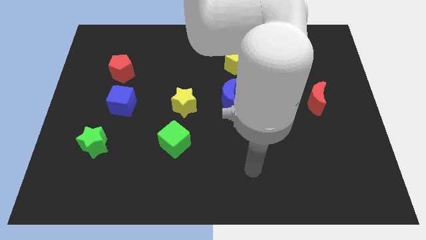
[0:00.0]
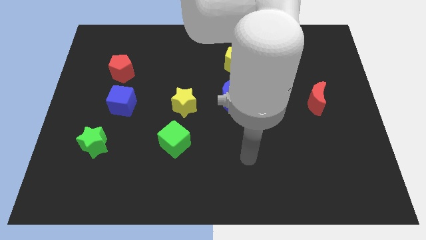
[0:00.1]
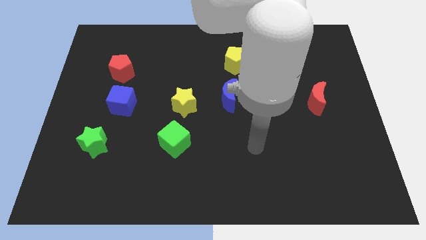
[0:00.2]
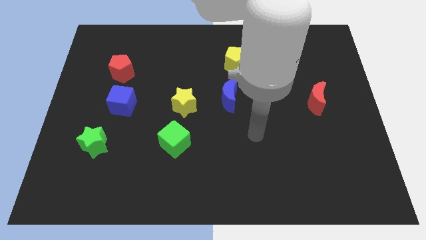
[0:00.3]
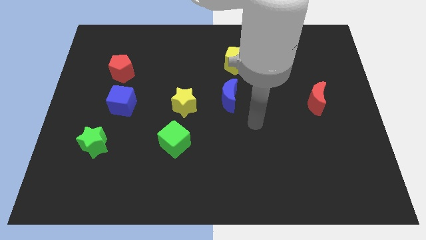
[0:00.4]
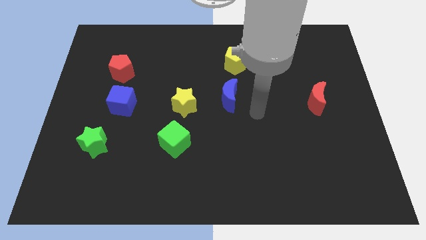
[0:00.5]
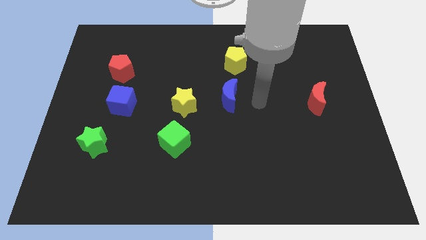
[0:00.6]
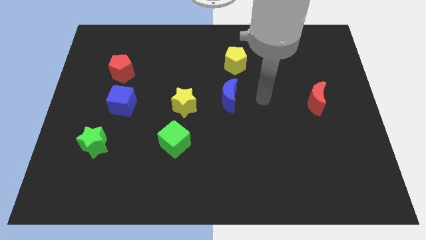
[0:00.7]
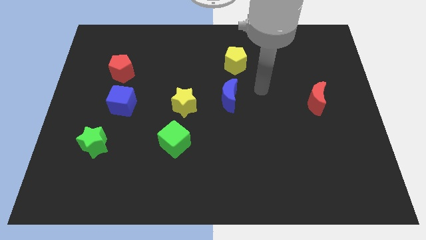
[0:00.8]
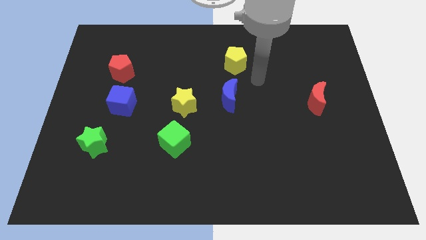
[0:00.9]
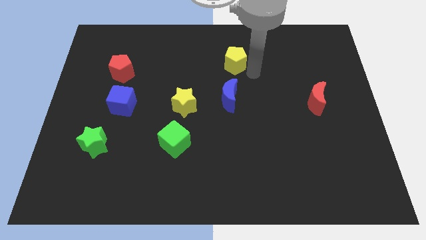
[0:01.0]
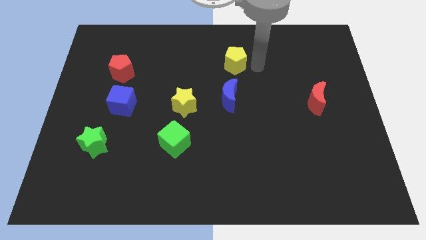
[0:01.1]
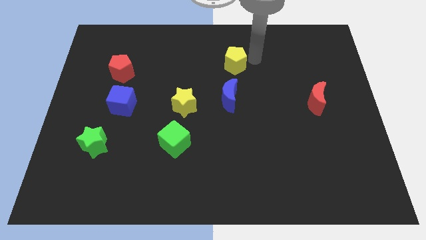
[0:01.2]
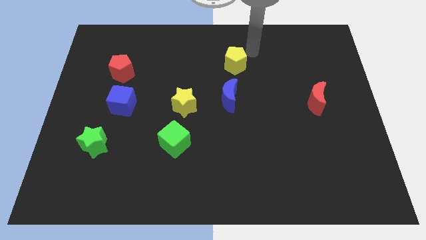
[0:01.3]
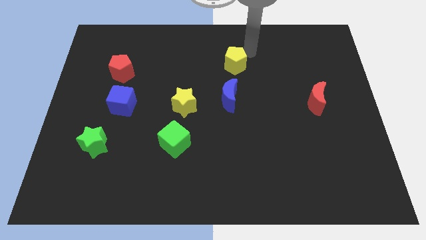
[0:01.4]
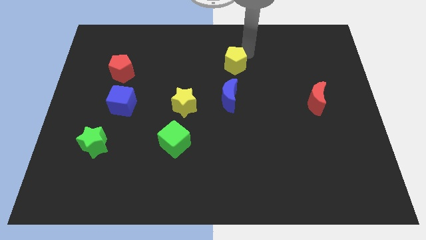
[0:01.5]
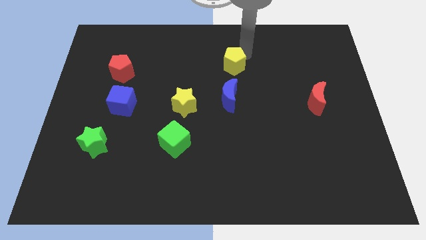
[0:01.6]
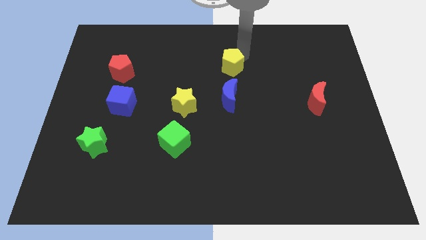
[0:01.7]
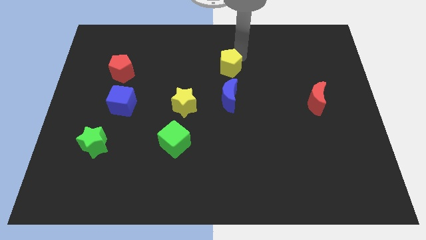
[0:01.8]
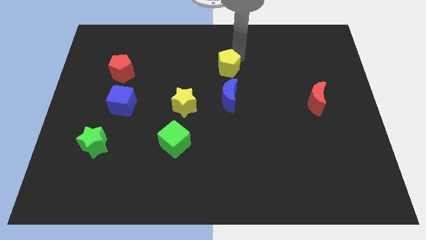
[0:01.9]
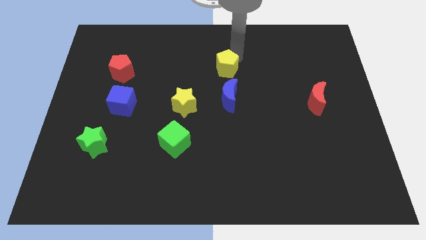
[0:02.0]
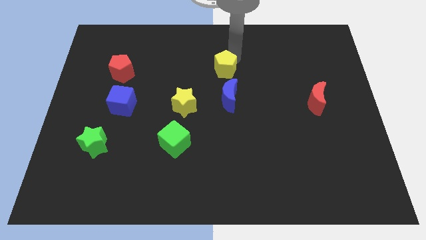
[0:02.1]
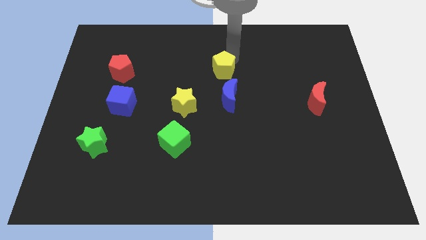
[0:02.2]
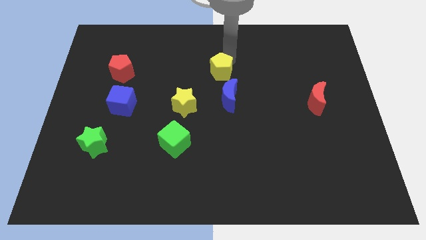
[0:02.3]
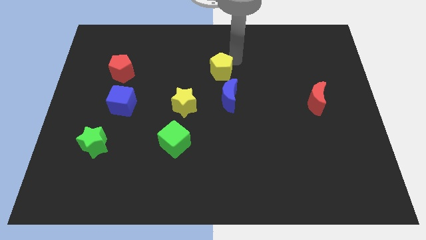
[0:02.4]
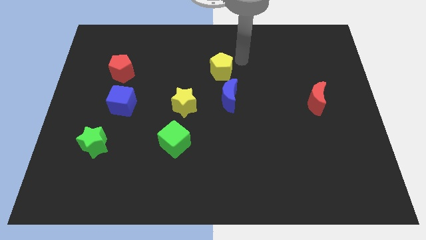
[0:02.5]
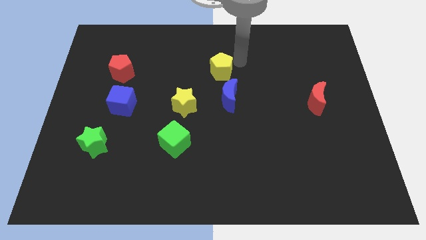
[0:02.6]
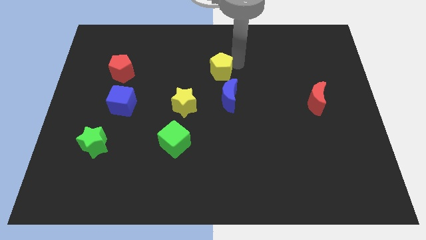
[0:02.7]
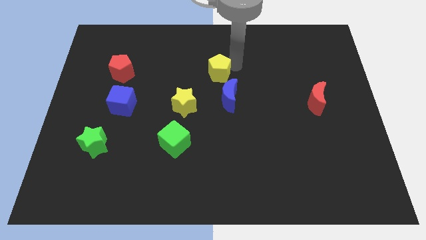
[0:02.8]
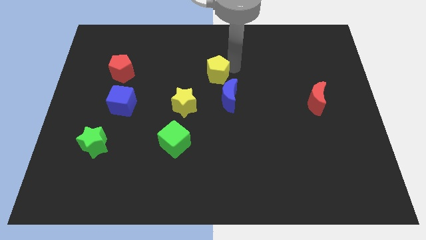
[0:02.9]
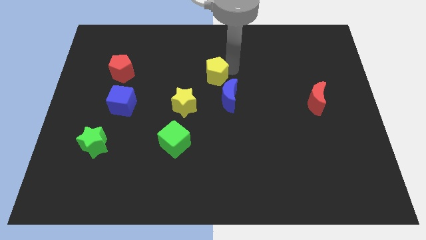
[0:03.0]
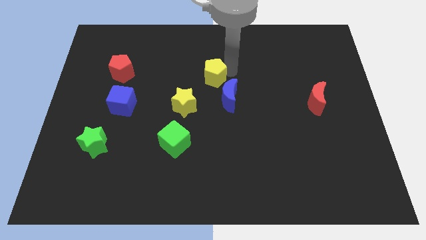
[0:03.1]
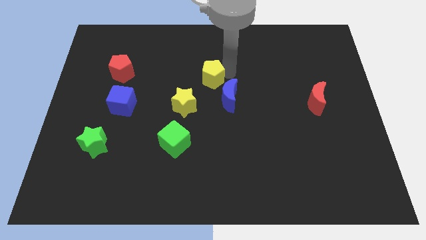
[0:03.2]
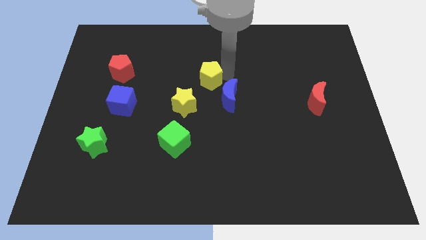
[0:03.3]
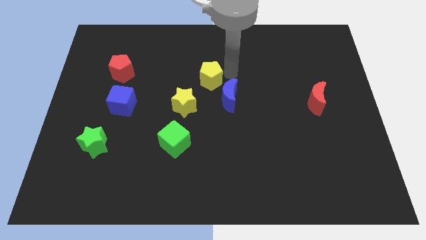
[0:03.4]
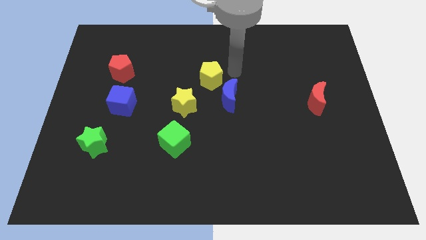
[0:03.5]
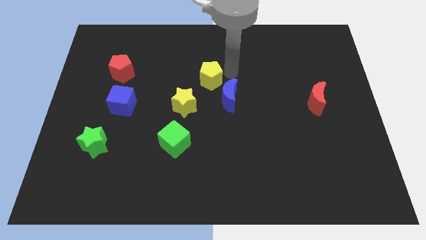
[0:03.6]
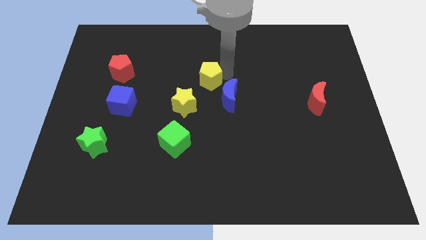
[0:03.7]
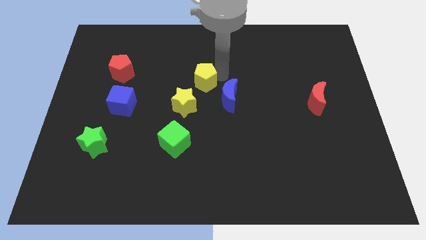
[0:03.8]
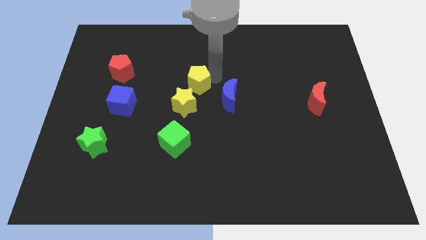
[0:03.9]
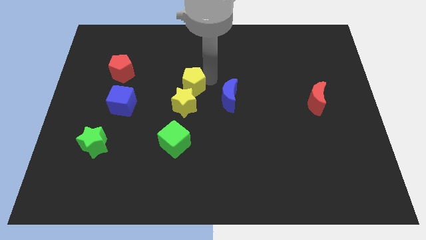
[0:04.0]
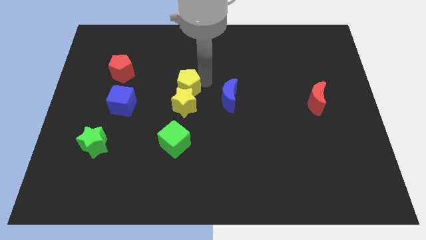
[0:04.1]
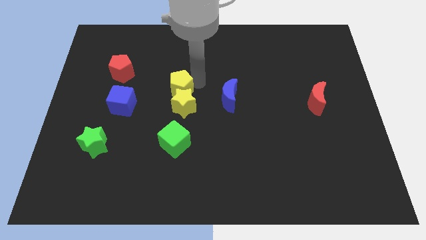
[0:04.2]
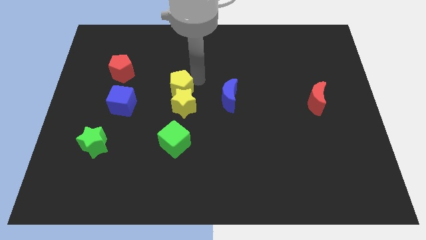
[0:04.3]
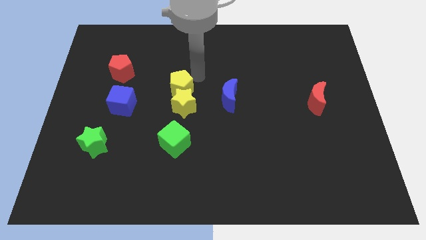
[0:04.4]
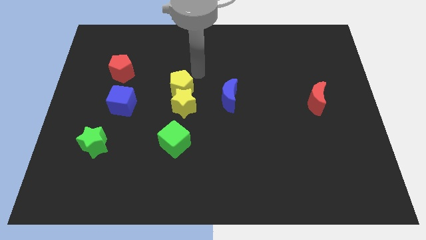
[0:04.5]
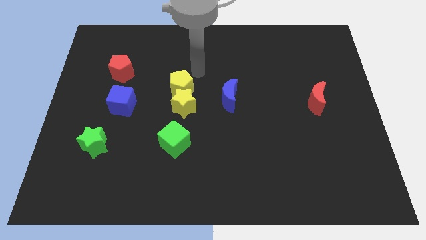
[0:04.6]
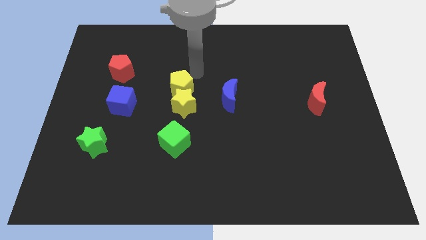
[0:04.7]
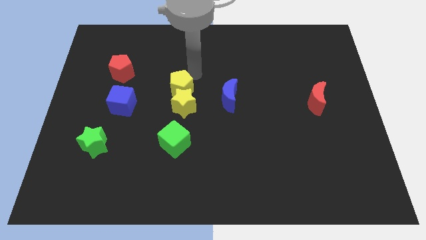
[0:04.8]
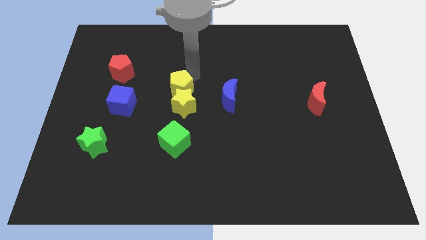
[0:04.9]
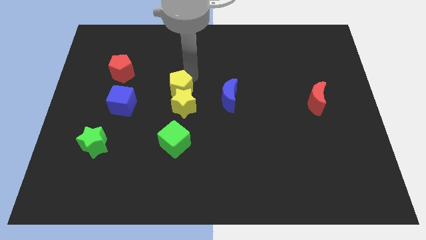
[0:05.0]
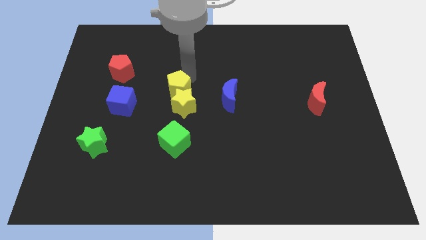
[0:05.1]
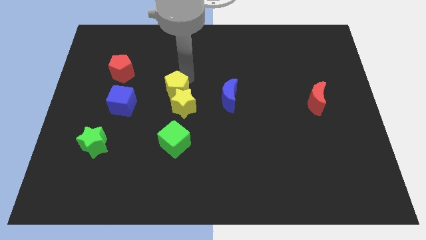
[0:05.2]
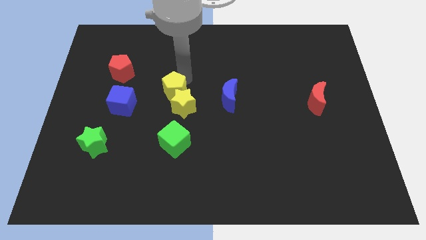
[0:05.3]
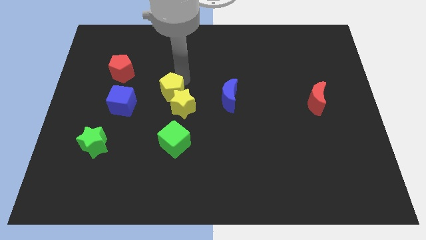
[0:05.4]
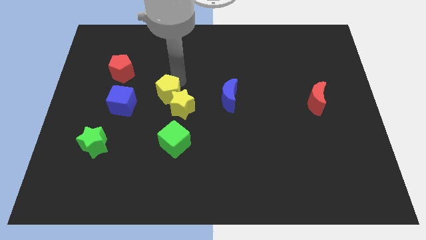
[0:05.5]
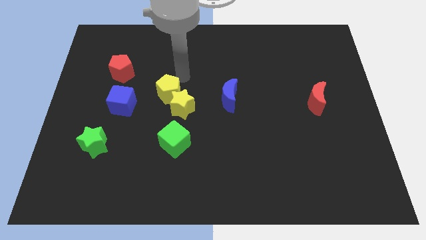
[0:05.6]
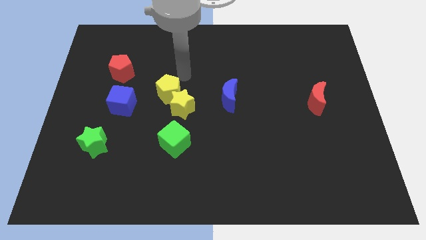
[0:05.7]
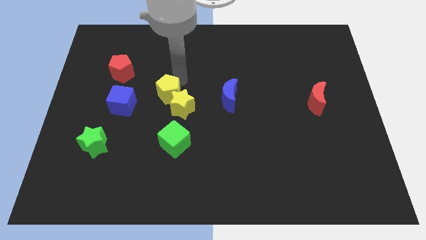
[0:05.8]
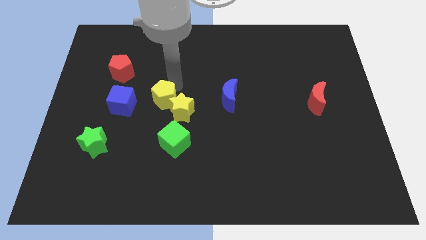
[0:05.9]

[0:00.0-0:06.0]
push the yellow pentagon downwards and left diagonally

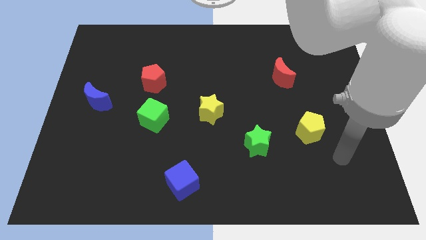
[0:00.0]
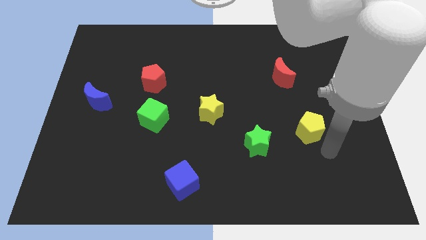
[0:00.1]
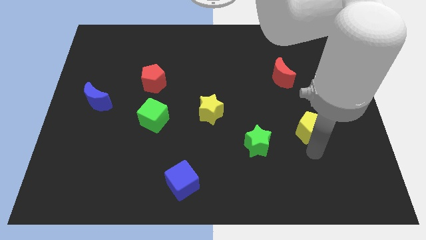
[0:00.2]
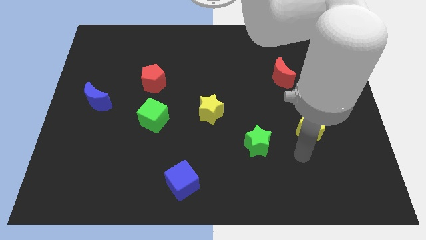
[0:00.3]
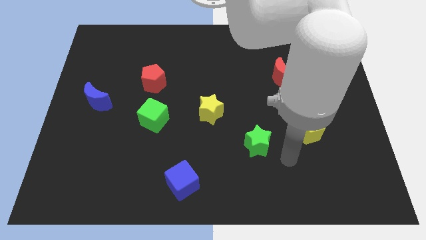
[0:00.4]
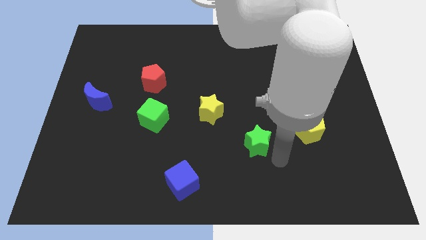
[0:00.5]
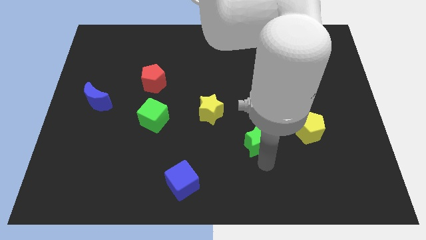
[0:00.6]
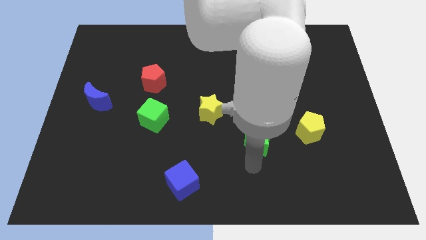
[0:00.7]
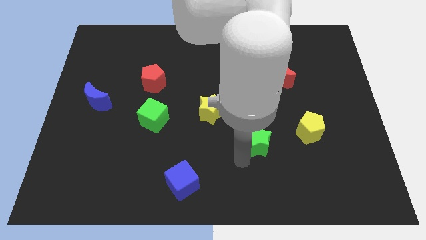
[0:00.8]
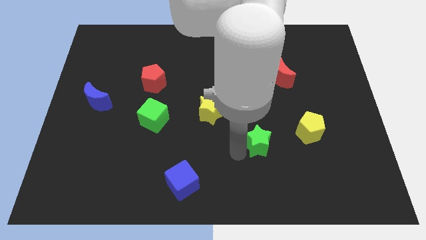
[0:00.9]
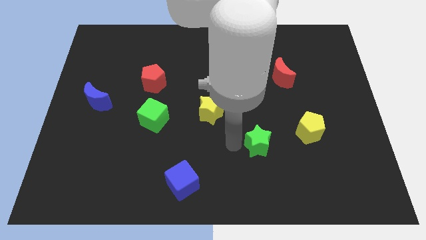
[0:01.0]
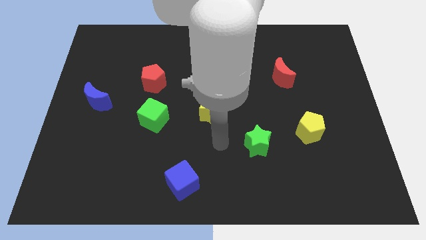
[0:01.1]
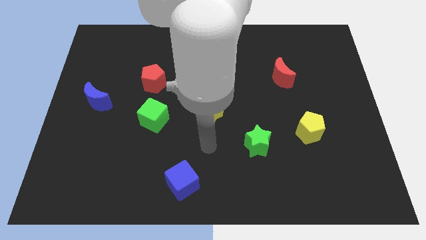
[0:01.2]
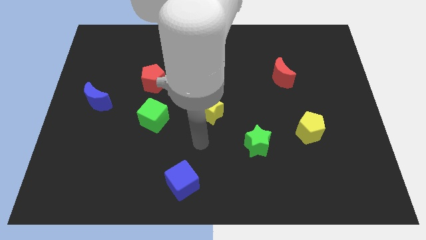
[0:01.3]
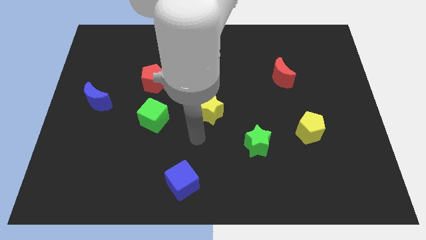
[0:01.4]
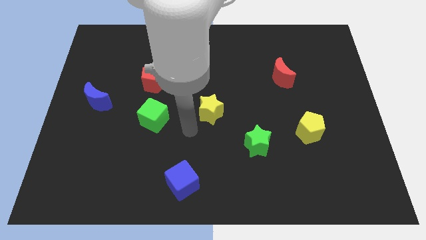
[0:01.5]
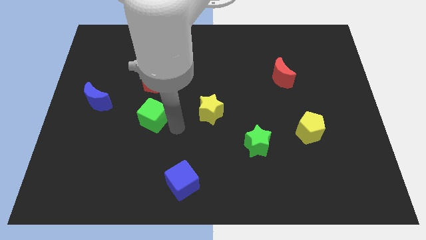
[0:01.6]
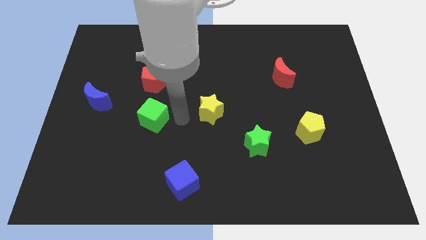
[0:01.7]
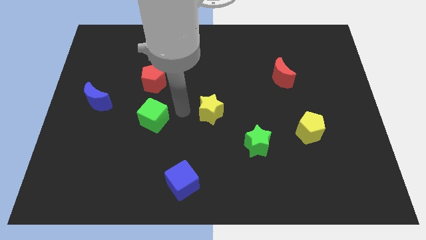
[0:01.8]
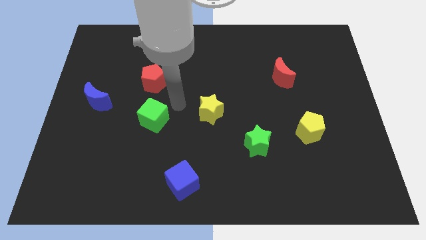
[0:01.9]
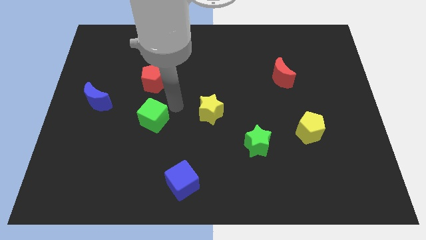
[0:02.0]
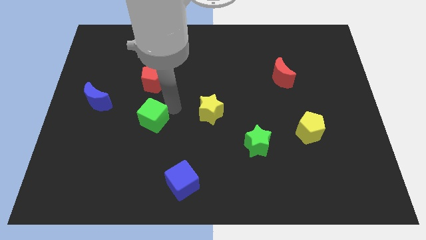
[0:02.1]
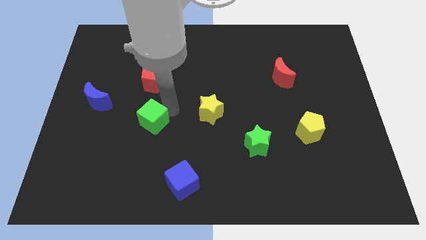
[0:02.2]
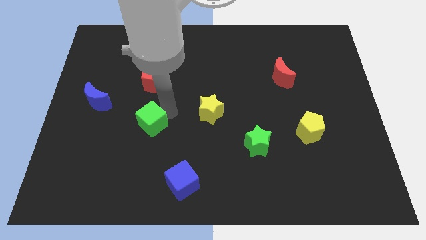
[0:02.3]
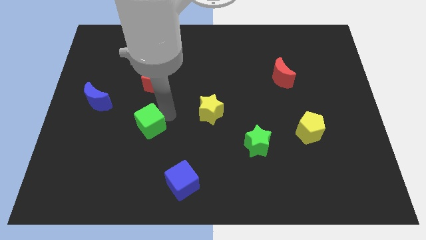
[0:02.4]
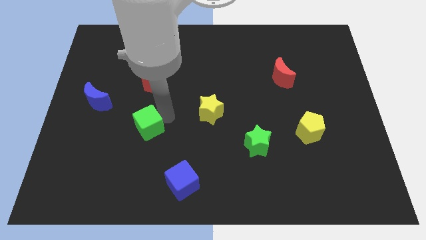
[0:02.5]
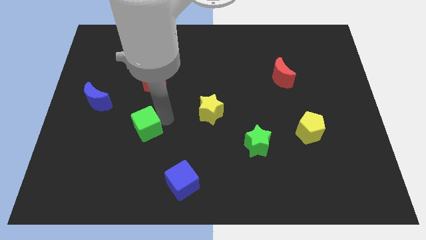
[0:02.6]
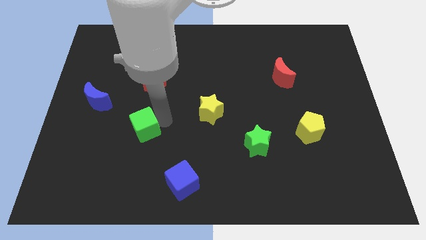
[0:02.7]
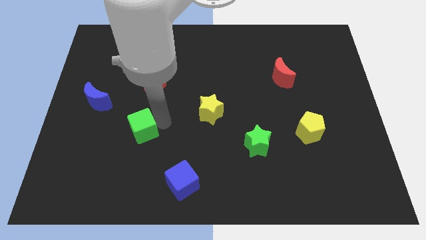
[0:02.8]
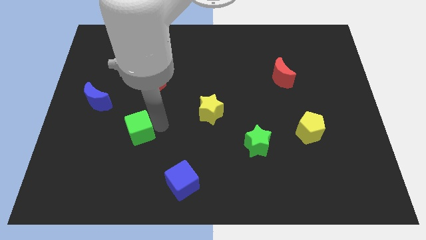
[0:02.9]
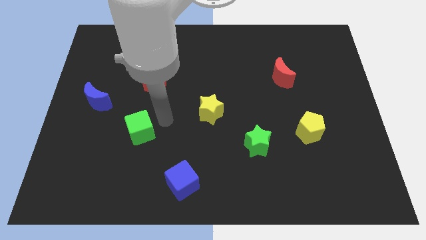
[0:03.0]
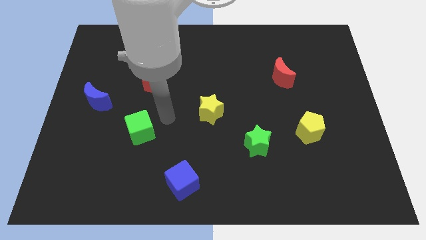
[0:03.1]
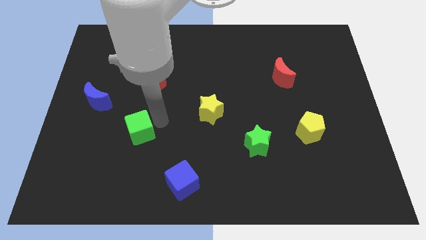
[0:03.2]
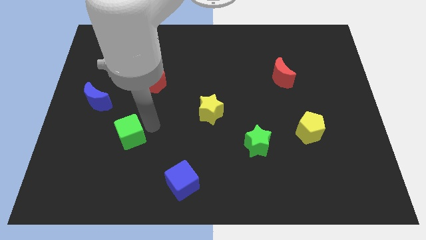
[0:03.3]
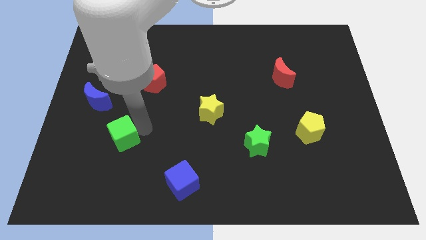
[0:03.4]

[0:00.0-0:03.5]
move the green cube slightly down and left diagonally
